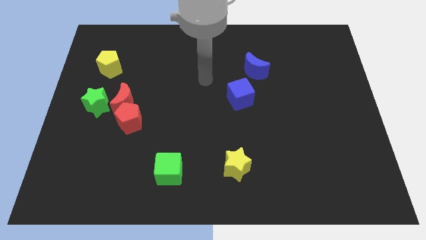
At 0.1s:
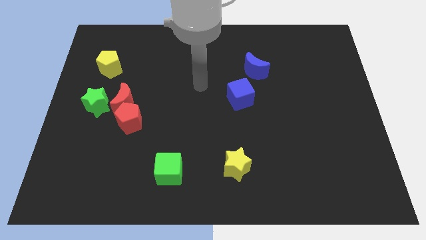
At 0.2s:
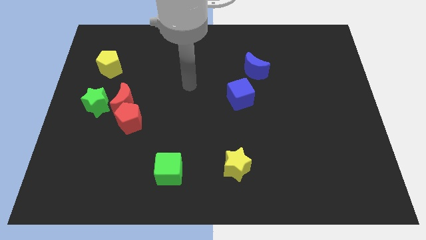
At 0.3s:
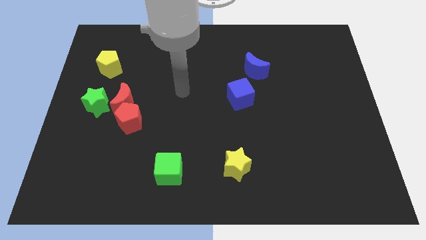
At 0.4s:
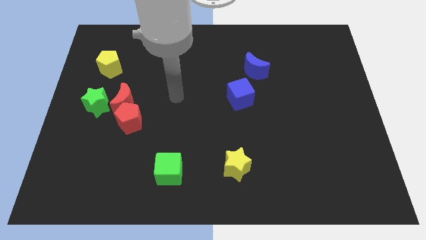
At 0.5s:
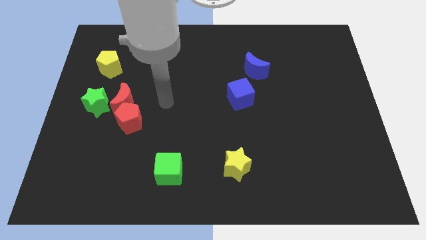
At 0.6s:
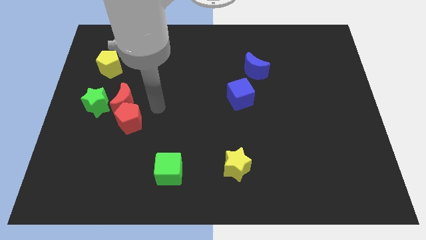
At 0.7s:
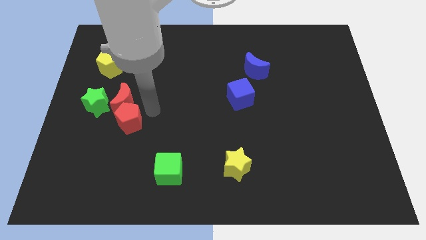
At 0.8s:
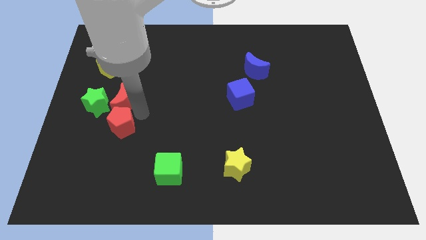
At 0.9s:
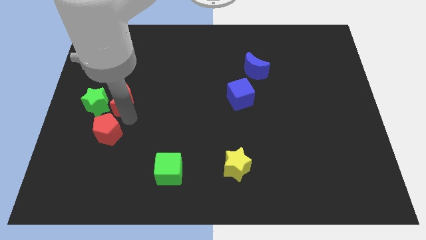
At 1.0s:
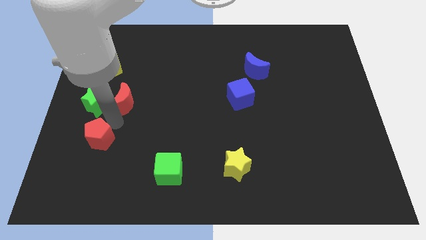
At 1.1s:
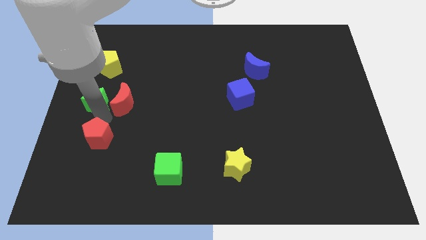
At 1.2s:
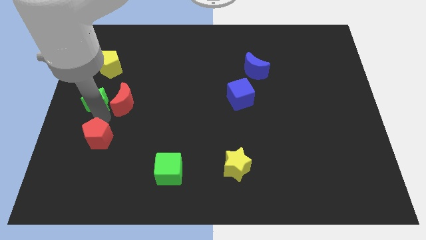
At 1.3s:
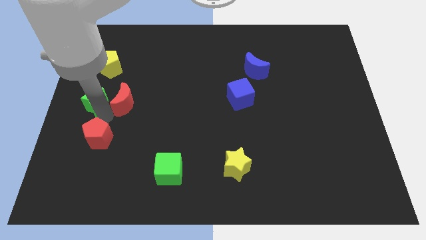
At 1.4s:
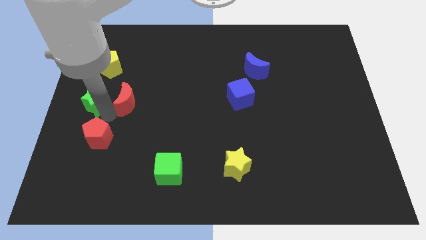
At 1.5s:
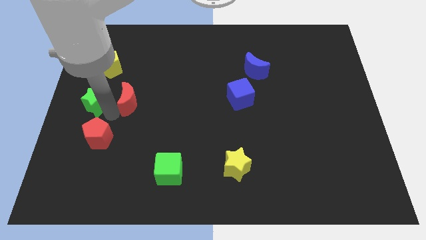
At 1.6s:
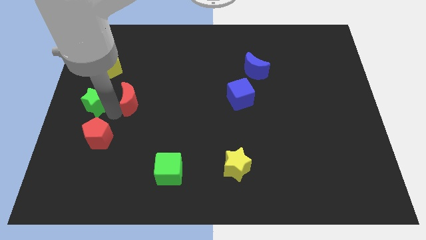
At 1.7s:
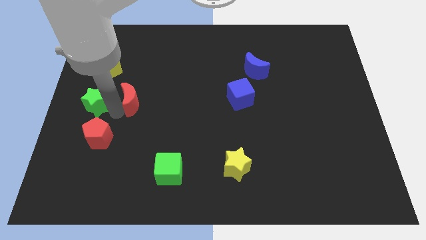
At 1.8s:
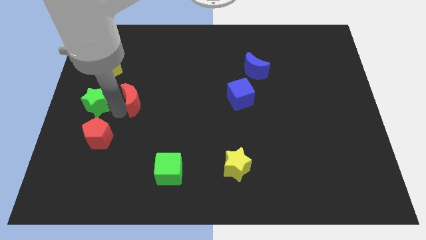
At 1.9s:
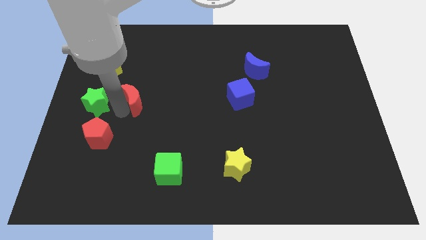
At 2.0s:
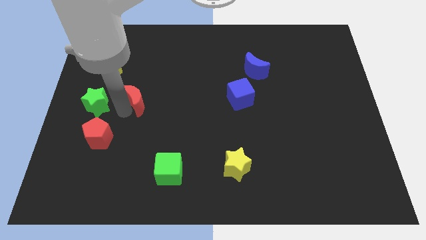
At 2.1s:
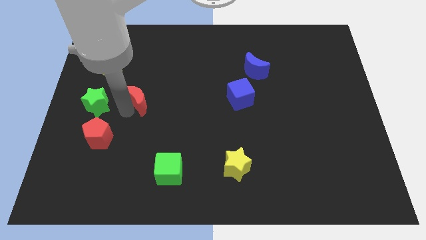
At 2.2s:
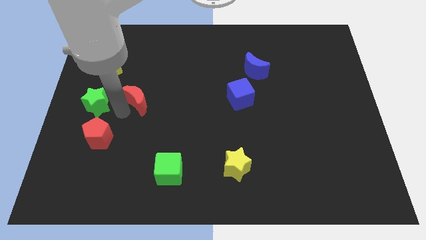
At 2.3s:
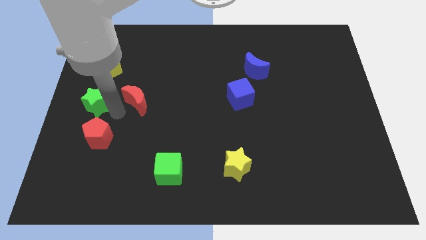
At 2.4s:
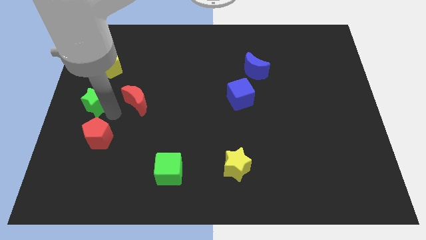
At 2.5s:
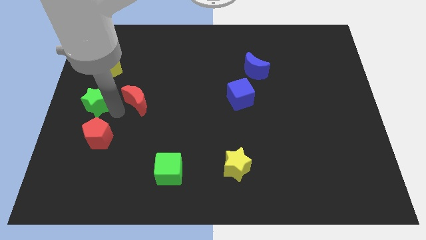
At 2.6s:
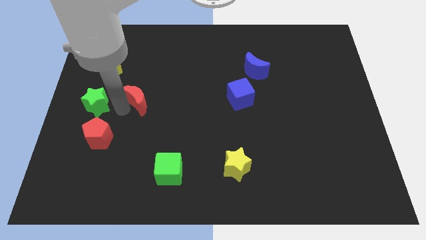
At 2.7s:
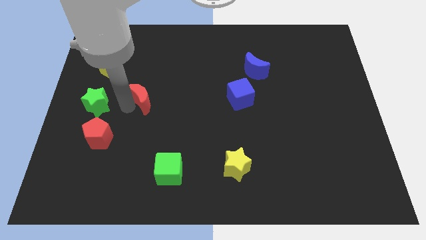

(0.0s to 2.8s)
pull the red moon apart from the red pentagon and green star

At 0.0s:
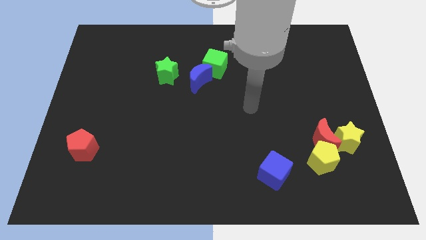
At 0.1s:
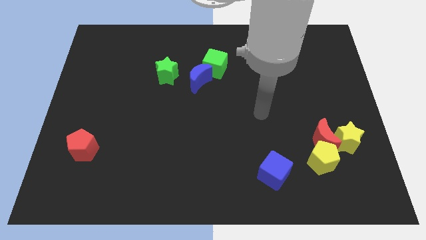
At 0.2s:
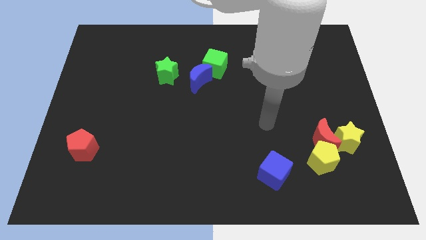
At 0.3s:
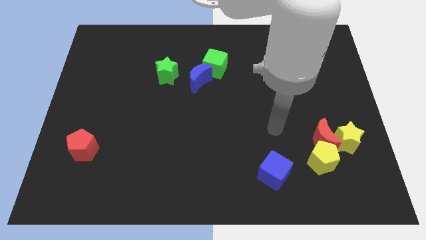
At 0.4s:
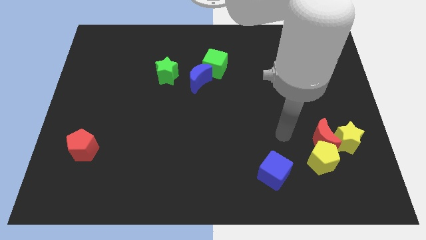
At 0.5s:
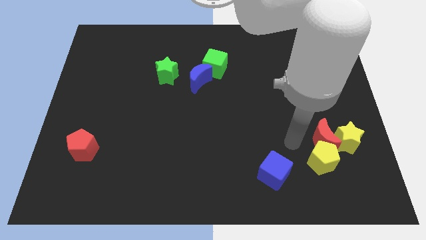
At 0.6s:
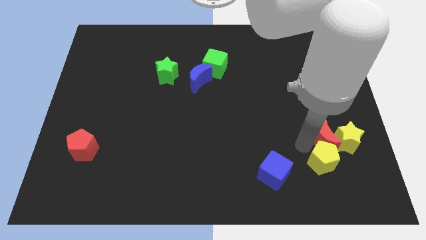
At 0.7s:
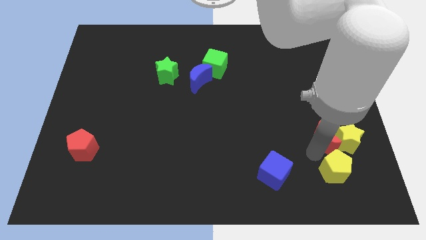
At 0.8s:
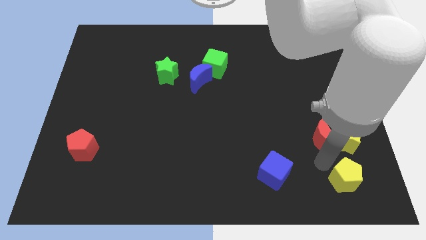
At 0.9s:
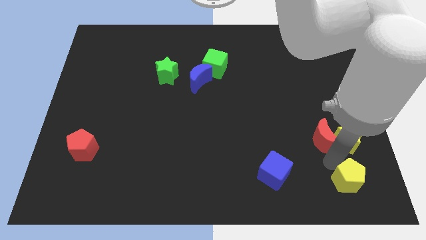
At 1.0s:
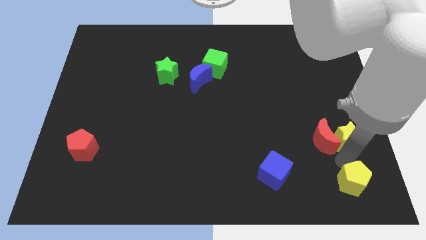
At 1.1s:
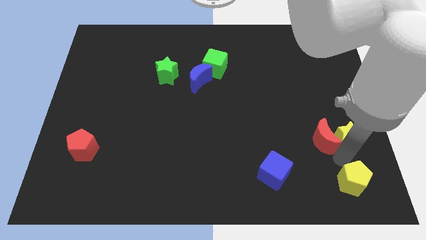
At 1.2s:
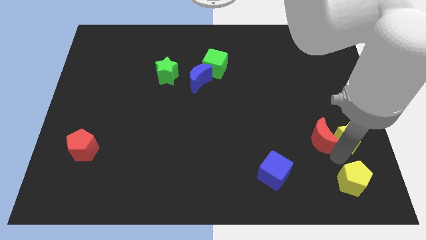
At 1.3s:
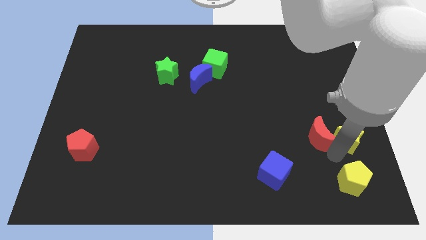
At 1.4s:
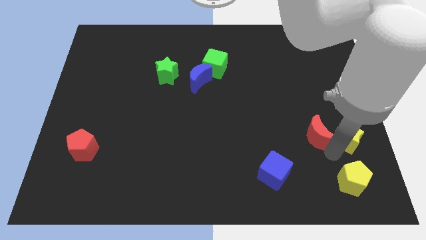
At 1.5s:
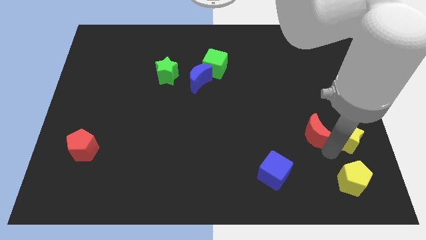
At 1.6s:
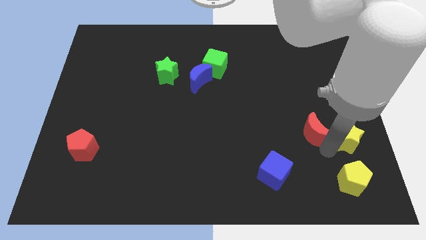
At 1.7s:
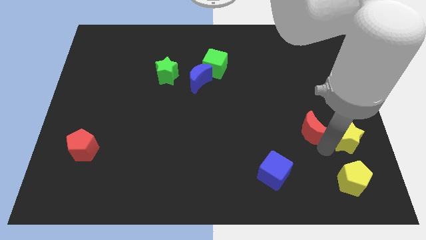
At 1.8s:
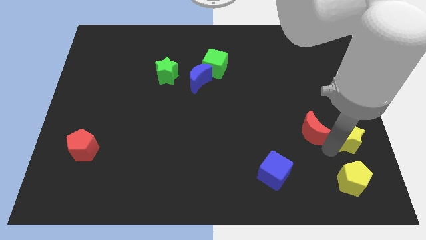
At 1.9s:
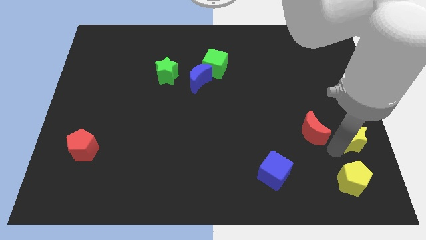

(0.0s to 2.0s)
separate the red moon from the yellow star and yellow pentagon

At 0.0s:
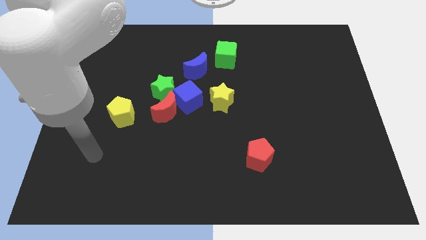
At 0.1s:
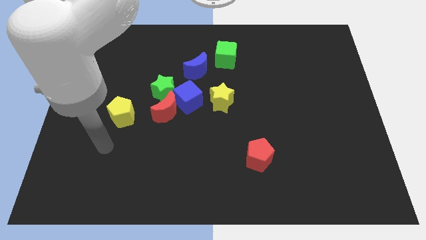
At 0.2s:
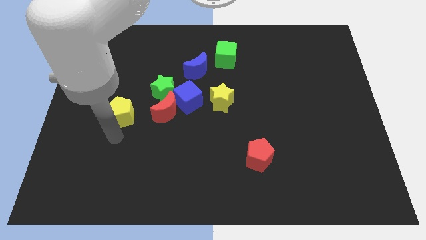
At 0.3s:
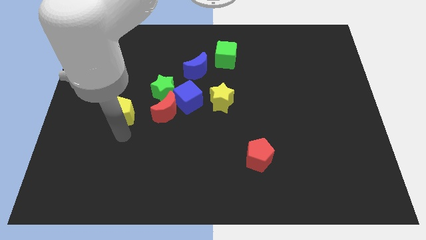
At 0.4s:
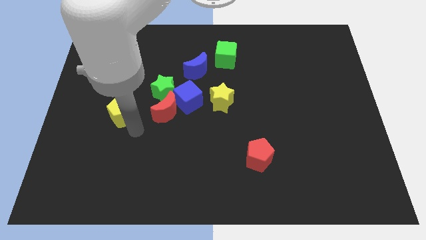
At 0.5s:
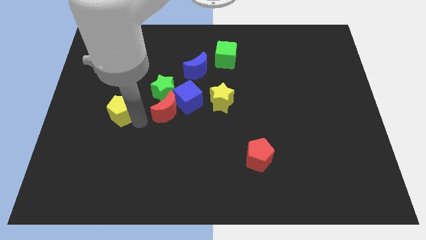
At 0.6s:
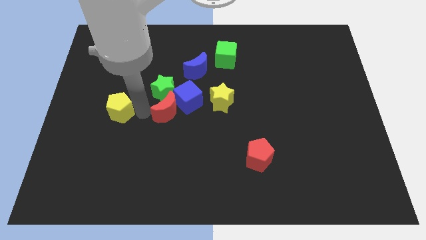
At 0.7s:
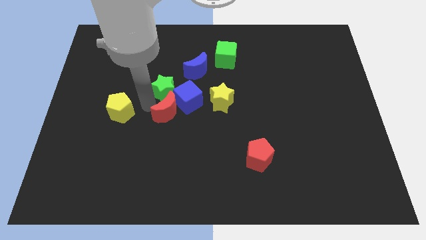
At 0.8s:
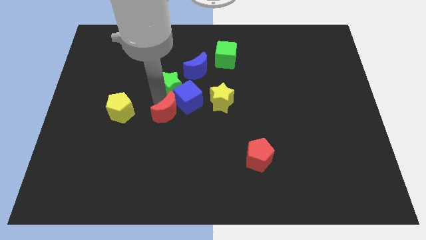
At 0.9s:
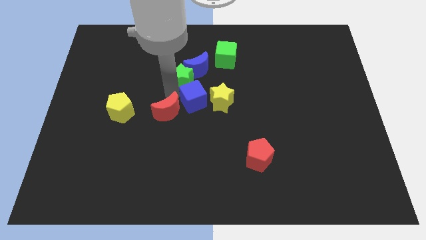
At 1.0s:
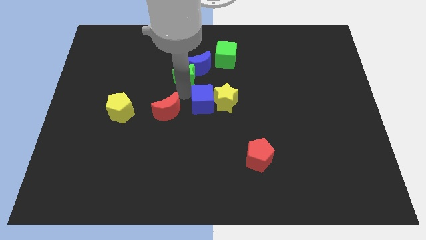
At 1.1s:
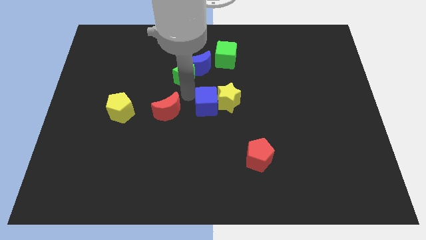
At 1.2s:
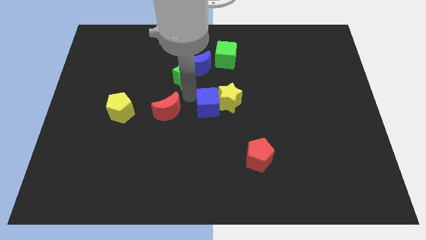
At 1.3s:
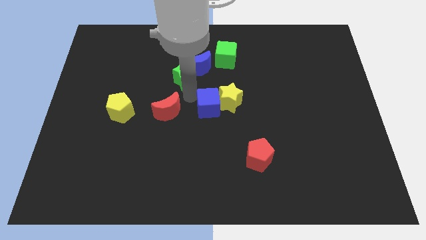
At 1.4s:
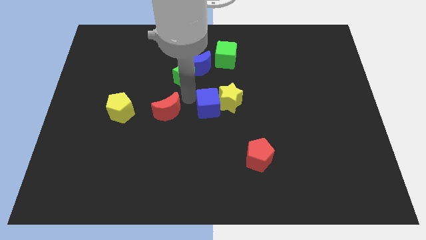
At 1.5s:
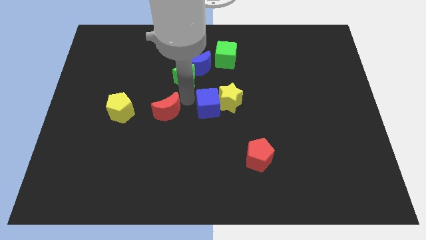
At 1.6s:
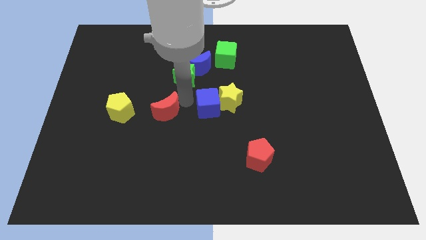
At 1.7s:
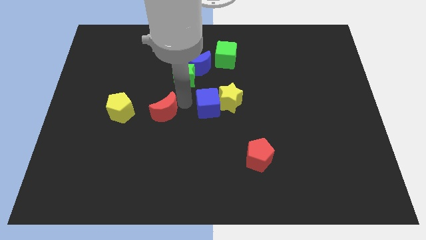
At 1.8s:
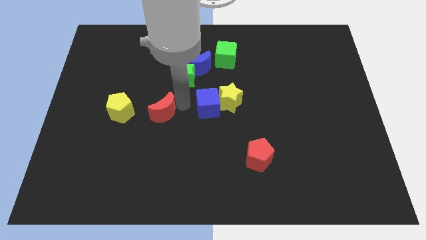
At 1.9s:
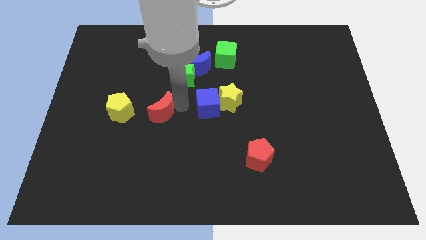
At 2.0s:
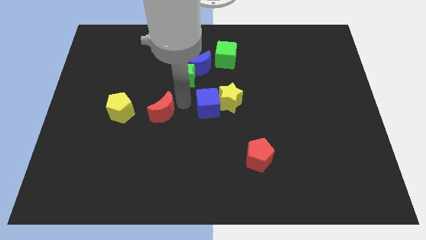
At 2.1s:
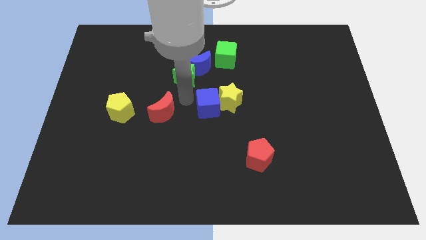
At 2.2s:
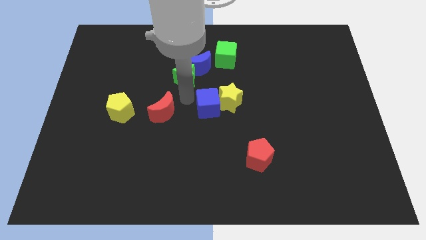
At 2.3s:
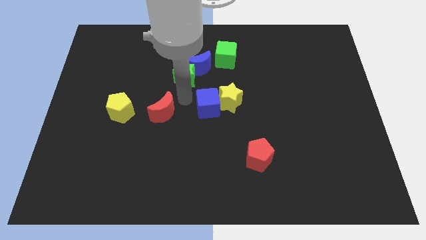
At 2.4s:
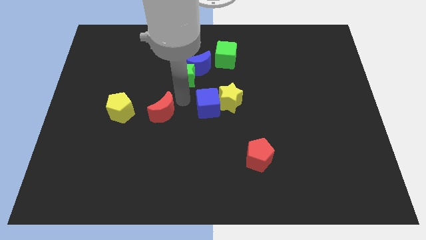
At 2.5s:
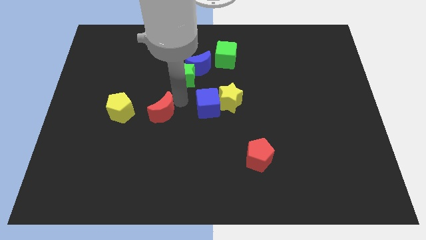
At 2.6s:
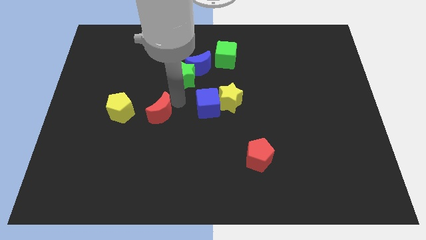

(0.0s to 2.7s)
separate the red moon from the green star and blue cube

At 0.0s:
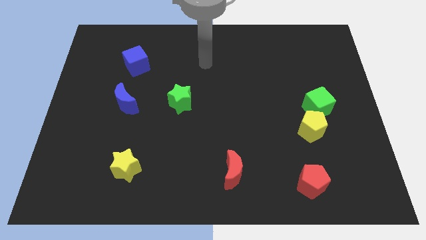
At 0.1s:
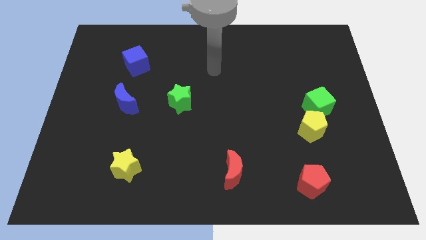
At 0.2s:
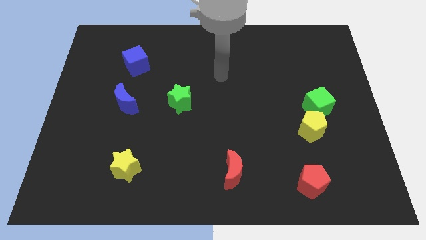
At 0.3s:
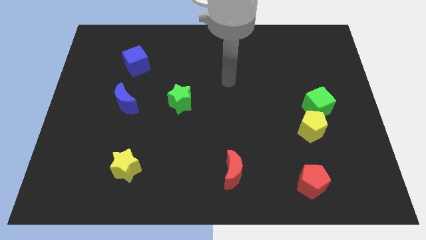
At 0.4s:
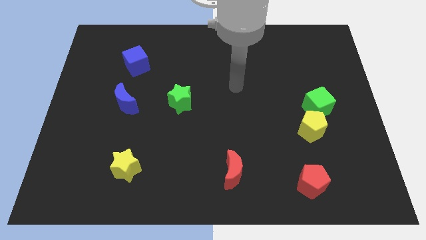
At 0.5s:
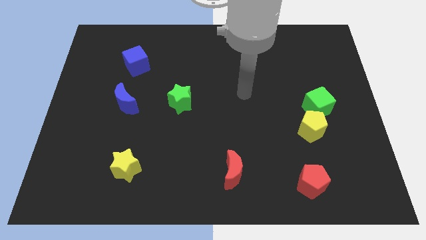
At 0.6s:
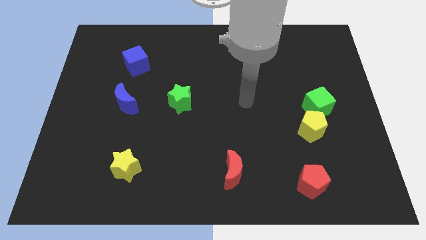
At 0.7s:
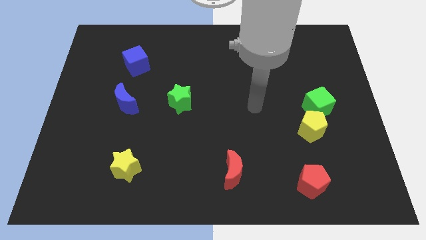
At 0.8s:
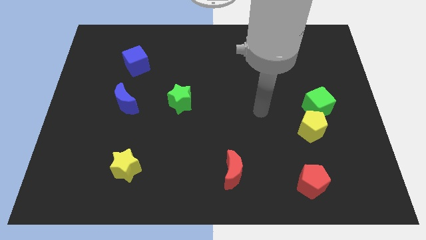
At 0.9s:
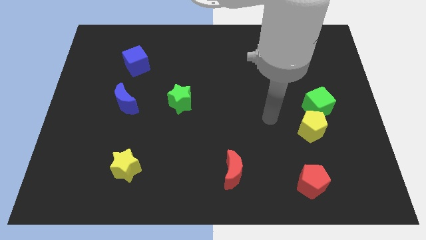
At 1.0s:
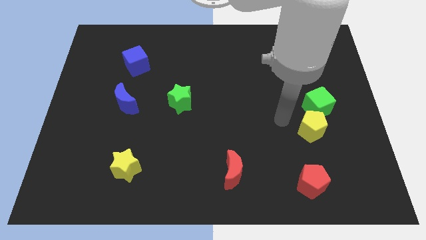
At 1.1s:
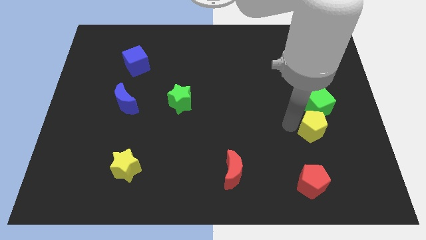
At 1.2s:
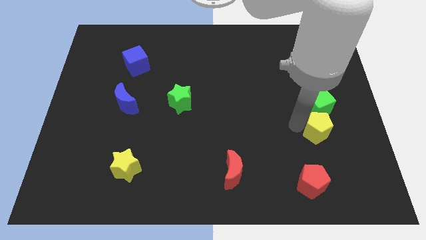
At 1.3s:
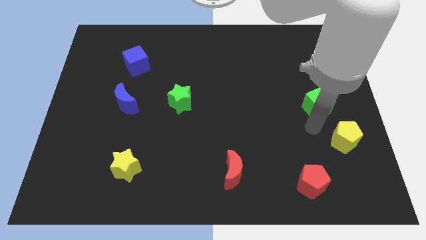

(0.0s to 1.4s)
separate the green cube from the yellow pentagon

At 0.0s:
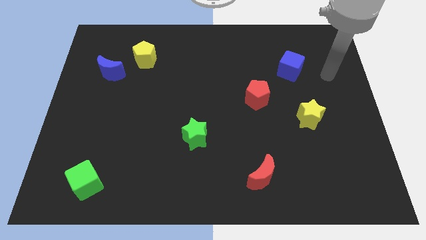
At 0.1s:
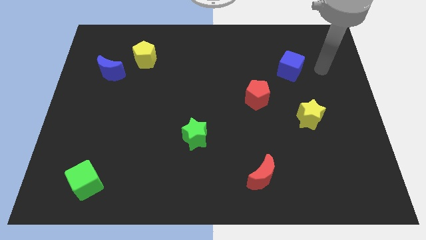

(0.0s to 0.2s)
separate the blue moon from the yellow pentagon
